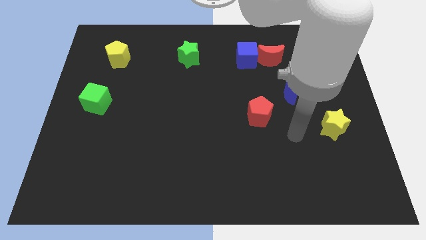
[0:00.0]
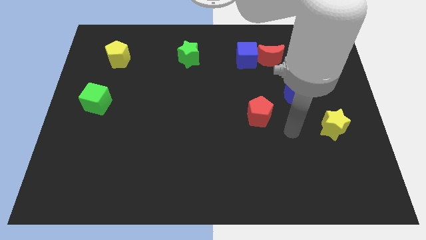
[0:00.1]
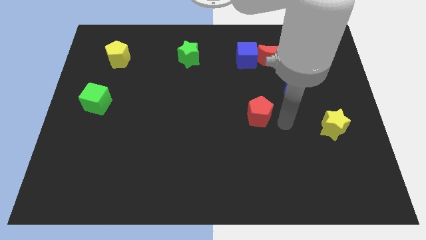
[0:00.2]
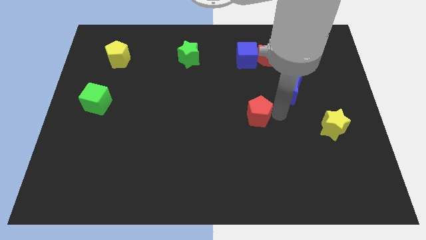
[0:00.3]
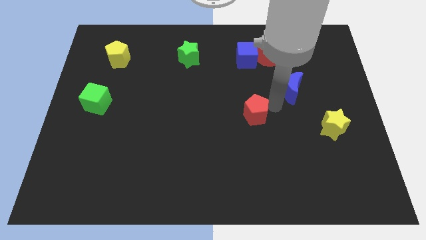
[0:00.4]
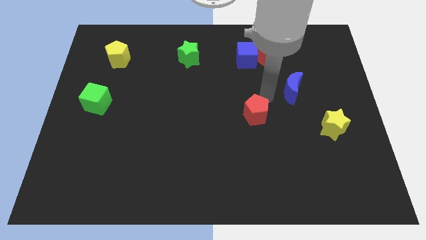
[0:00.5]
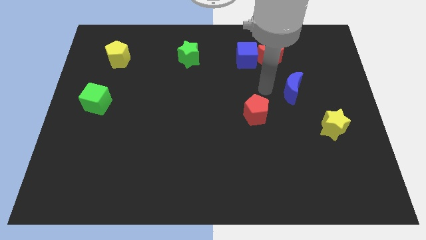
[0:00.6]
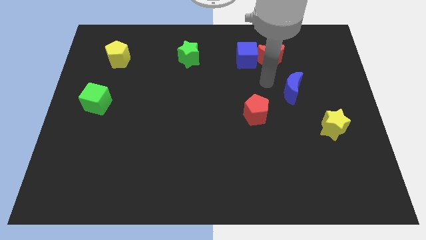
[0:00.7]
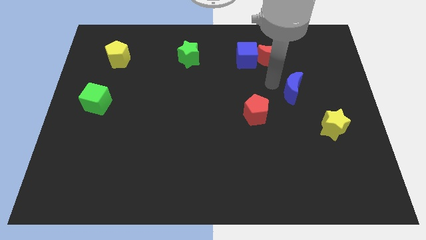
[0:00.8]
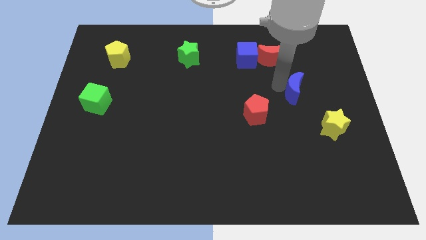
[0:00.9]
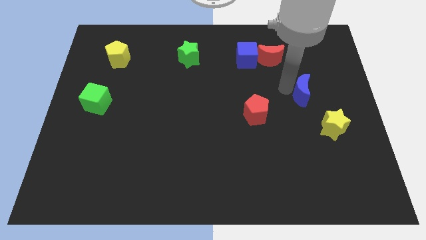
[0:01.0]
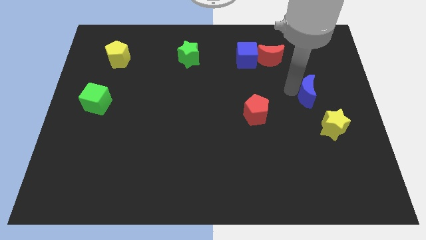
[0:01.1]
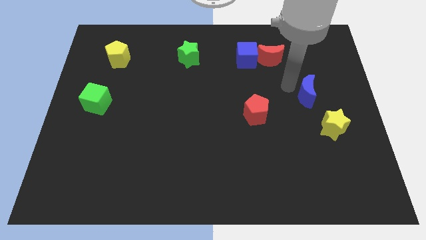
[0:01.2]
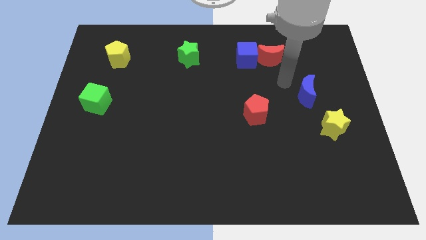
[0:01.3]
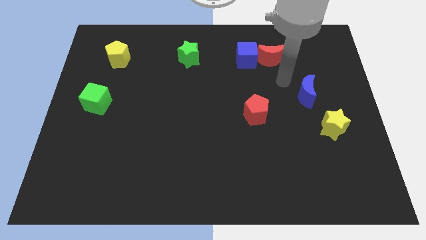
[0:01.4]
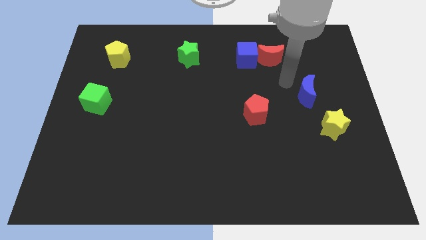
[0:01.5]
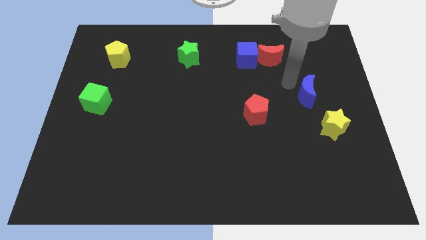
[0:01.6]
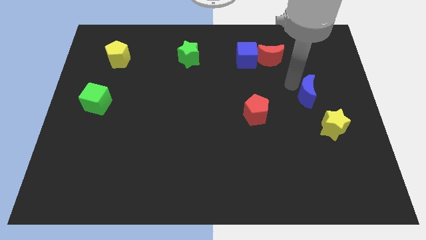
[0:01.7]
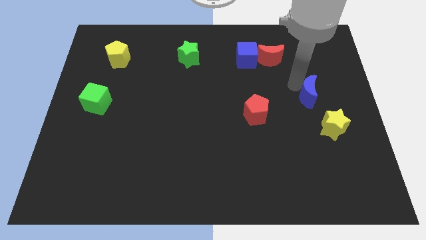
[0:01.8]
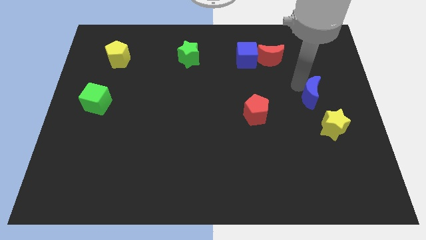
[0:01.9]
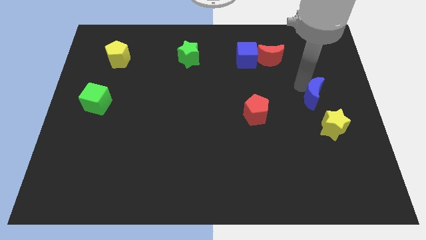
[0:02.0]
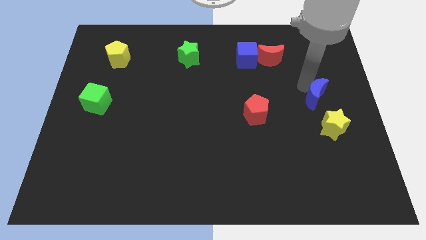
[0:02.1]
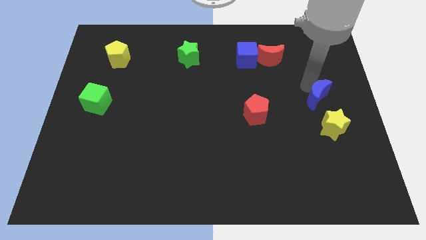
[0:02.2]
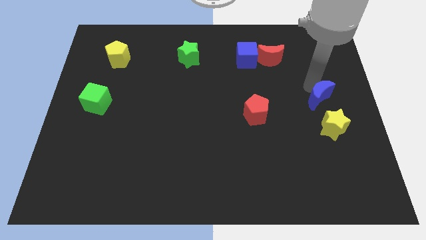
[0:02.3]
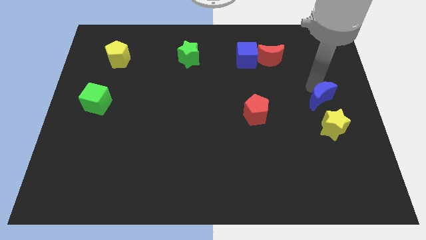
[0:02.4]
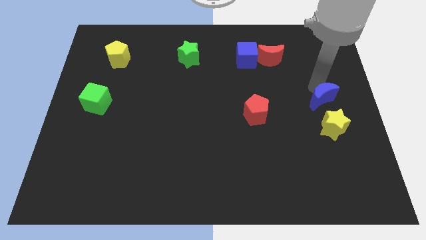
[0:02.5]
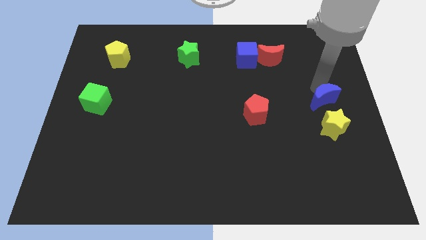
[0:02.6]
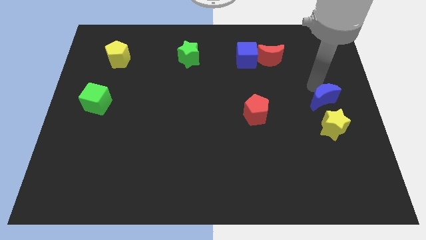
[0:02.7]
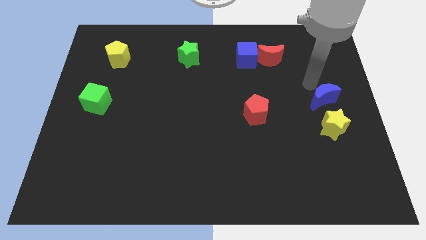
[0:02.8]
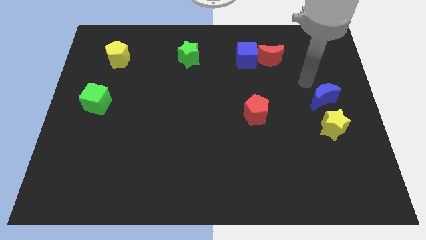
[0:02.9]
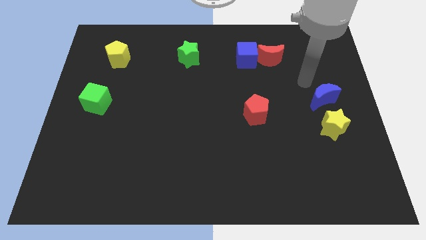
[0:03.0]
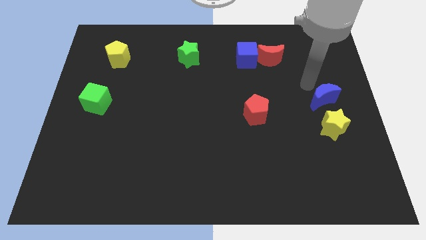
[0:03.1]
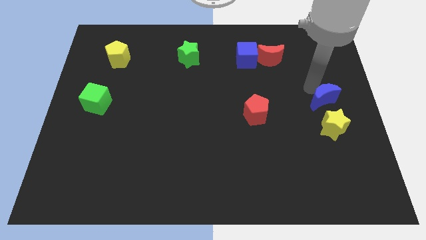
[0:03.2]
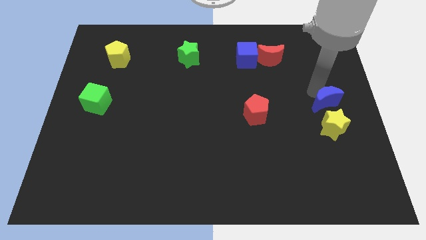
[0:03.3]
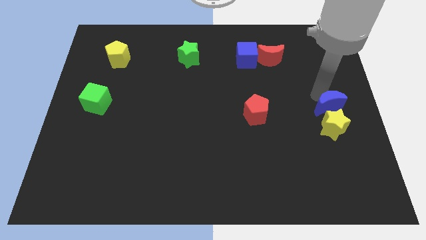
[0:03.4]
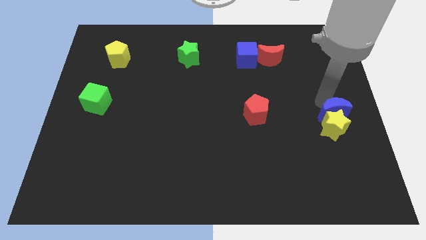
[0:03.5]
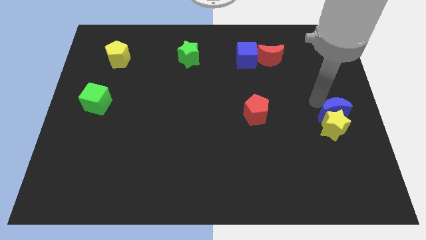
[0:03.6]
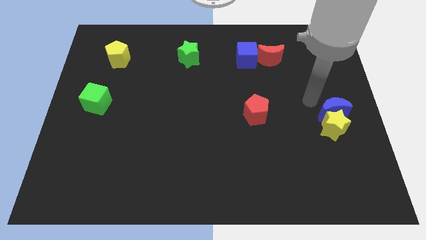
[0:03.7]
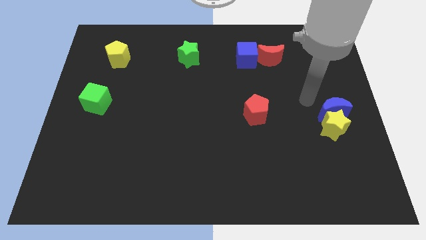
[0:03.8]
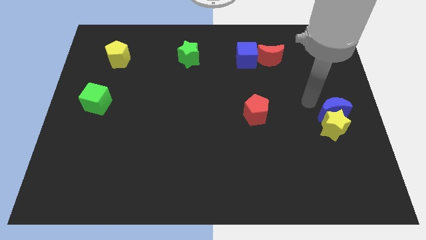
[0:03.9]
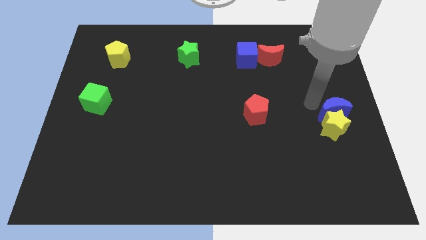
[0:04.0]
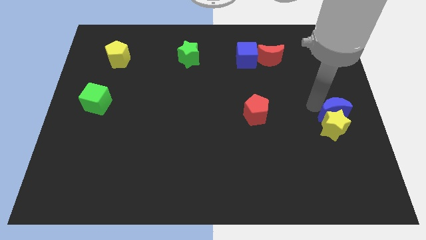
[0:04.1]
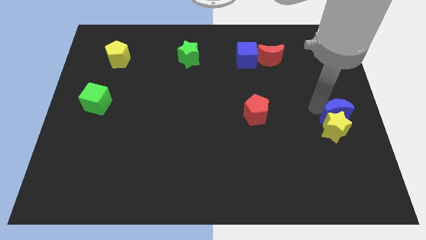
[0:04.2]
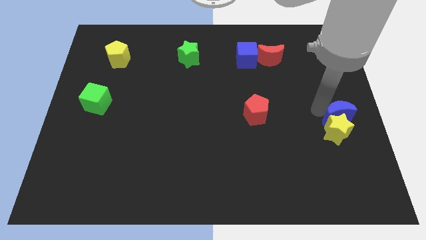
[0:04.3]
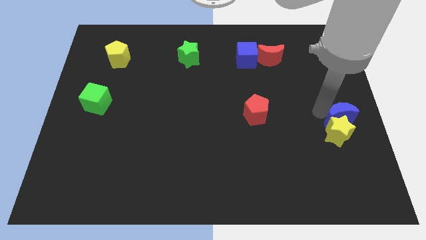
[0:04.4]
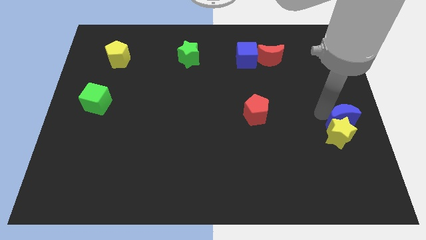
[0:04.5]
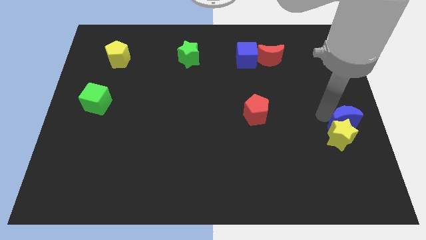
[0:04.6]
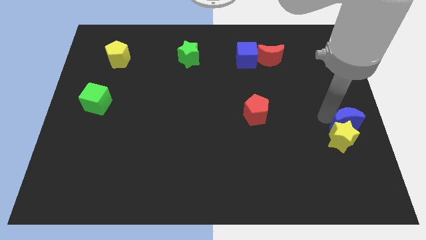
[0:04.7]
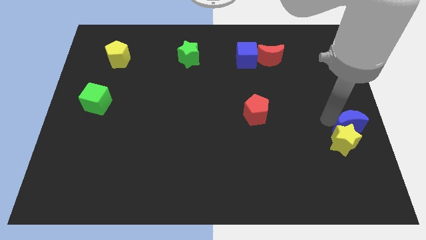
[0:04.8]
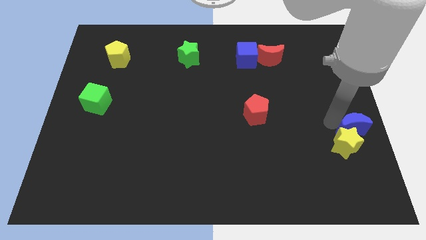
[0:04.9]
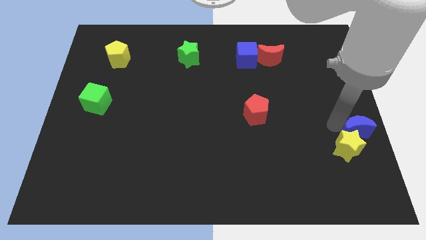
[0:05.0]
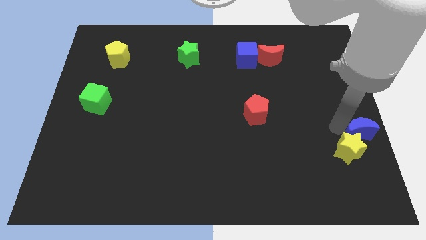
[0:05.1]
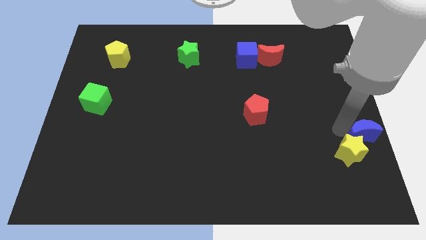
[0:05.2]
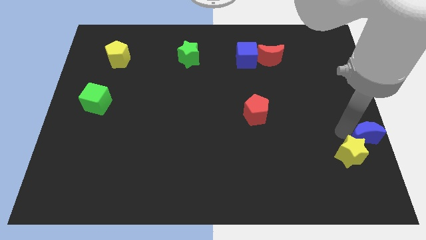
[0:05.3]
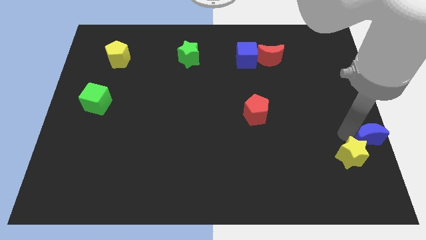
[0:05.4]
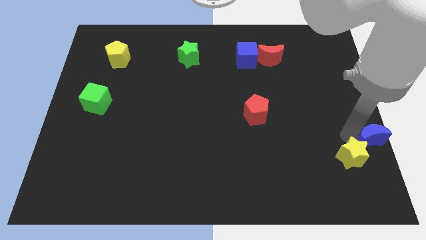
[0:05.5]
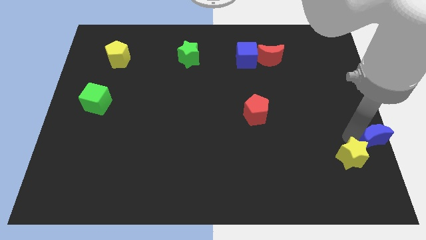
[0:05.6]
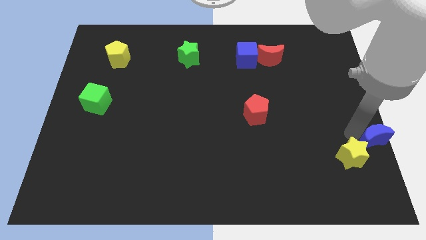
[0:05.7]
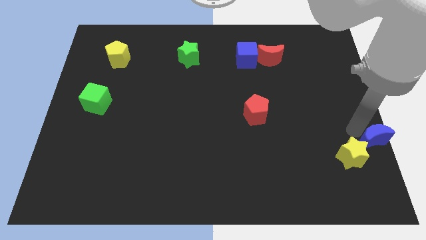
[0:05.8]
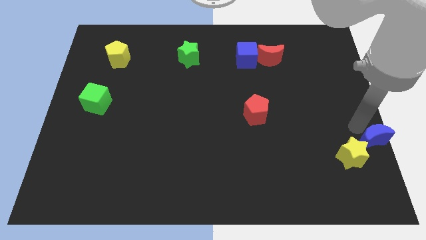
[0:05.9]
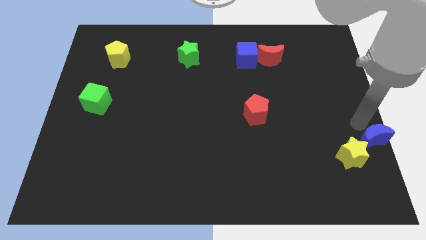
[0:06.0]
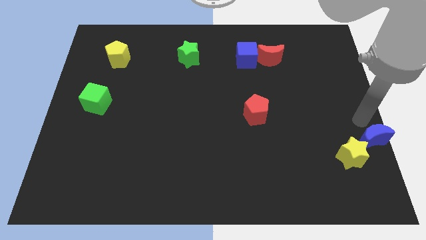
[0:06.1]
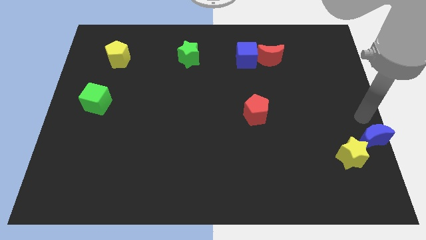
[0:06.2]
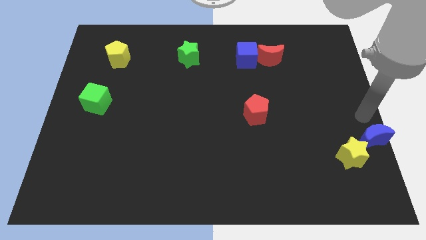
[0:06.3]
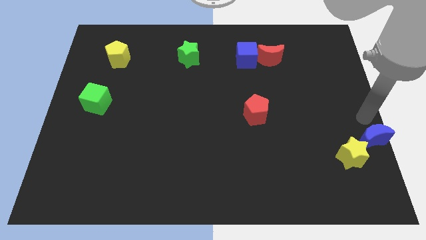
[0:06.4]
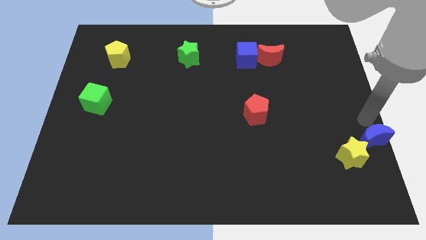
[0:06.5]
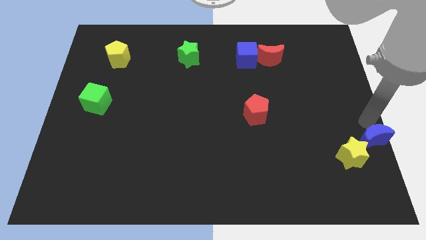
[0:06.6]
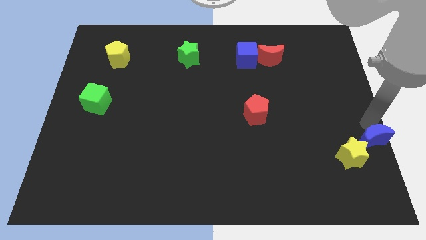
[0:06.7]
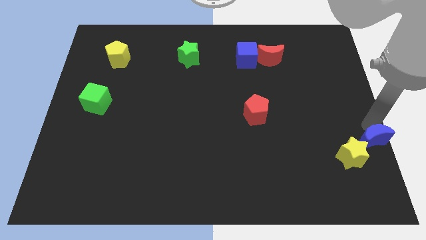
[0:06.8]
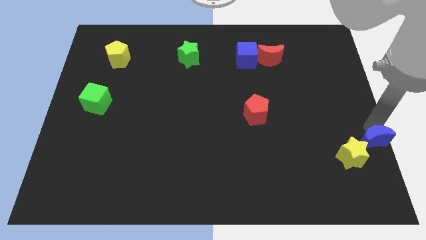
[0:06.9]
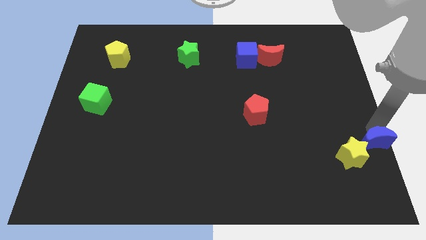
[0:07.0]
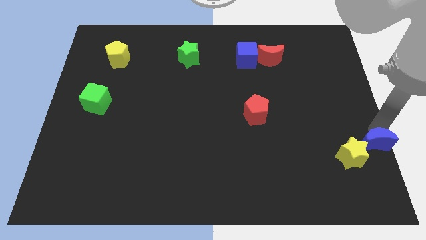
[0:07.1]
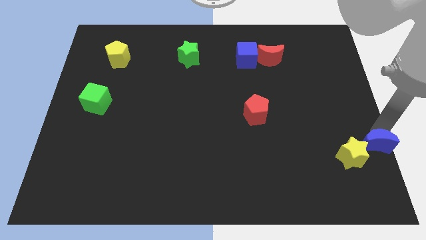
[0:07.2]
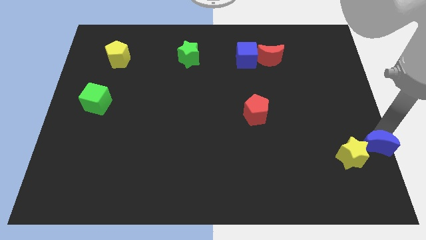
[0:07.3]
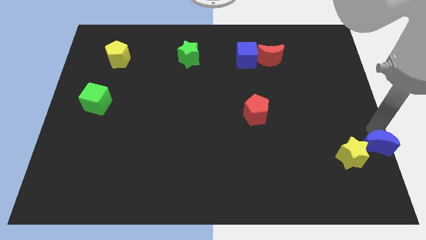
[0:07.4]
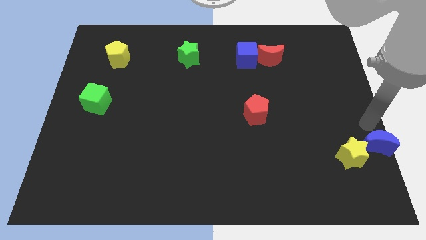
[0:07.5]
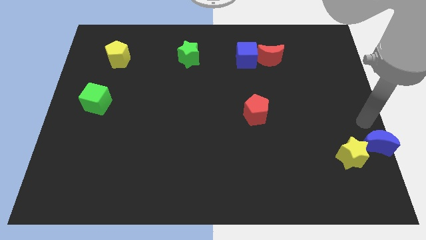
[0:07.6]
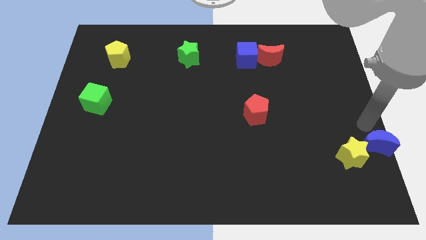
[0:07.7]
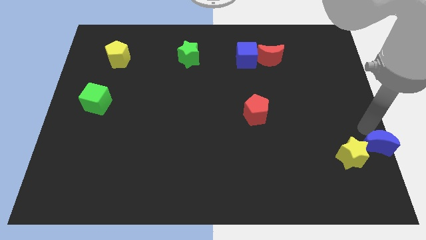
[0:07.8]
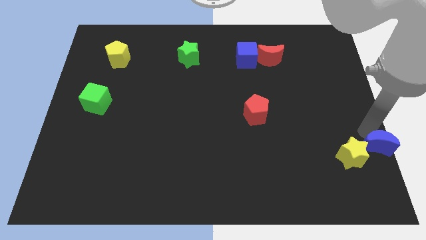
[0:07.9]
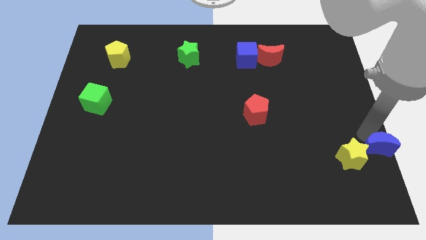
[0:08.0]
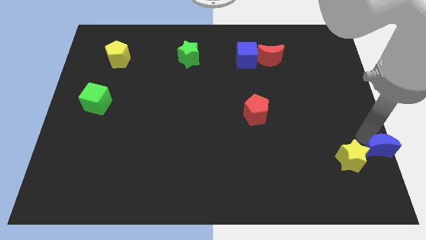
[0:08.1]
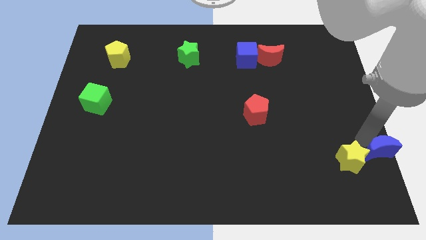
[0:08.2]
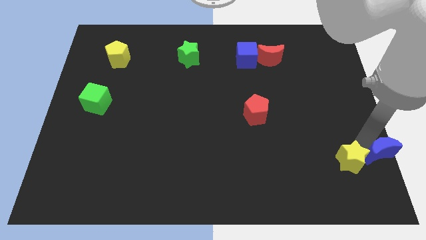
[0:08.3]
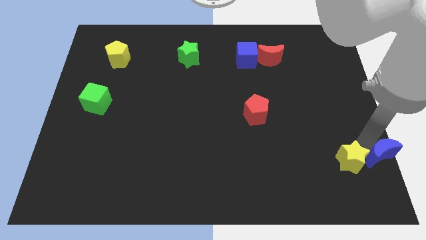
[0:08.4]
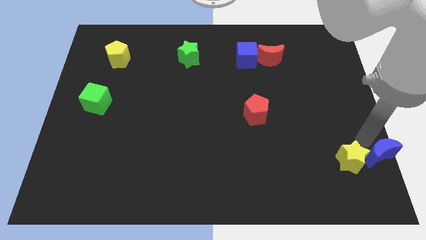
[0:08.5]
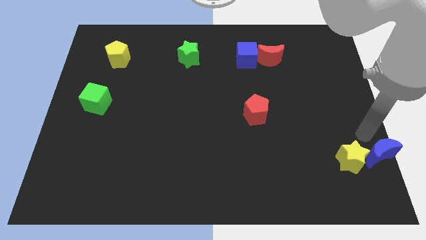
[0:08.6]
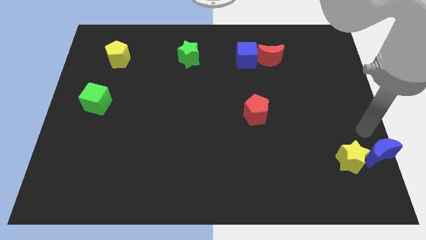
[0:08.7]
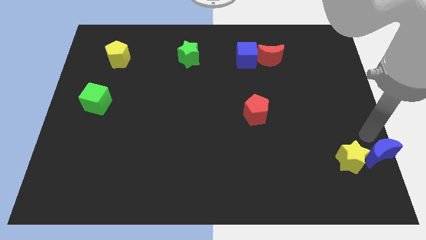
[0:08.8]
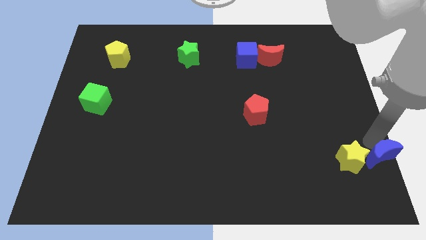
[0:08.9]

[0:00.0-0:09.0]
put the blue moon to the bottom right corner
